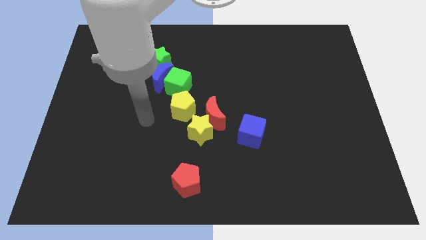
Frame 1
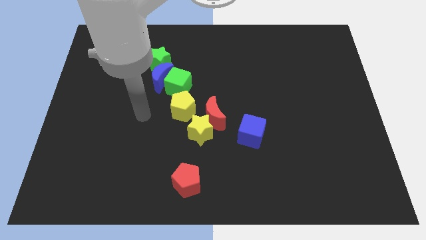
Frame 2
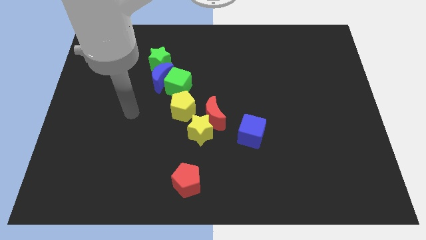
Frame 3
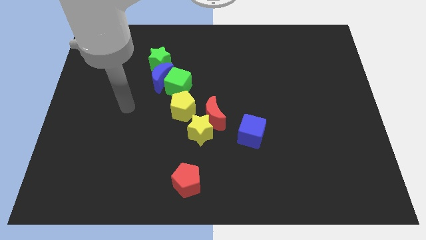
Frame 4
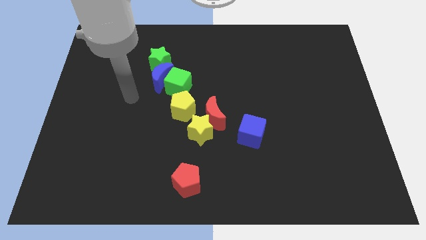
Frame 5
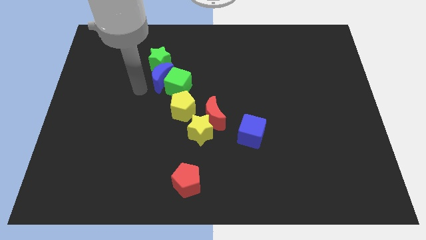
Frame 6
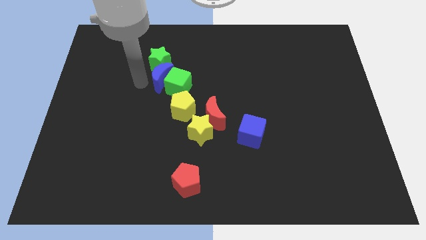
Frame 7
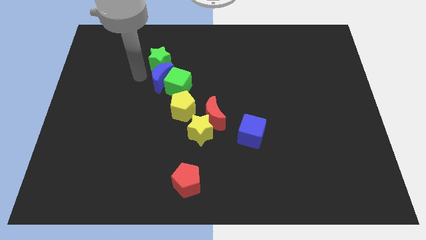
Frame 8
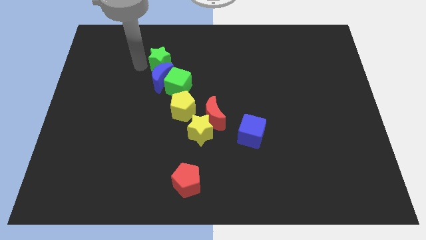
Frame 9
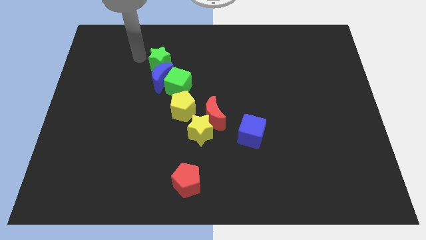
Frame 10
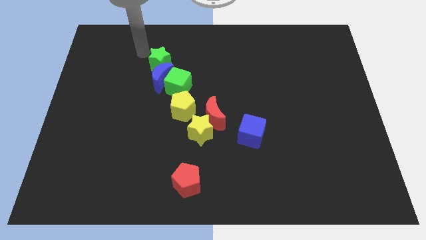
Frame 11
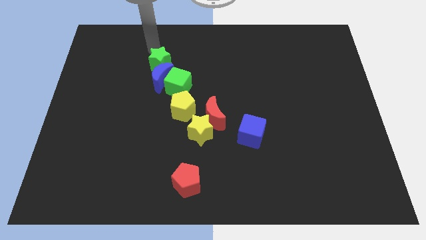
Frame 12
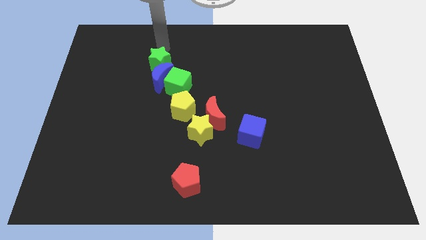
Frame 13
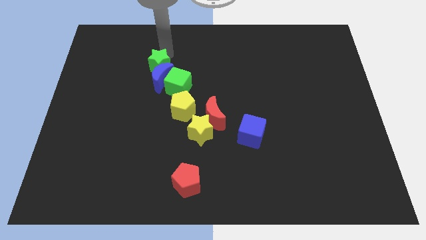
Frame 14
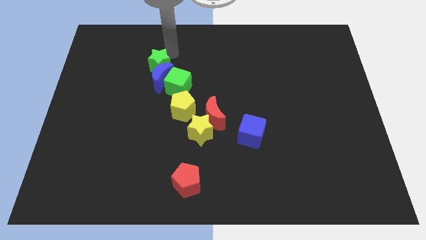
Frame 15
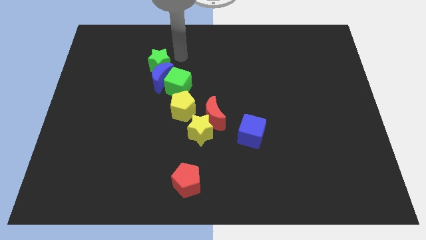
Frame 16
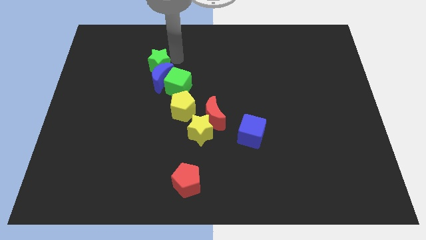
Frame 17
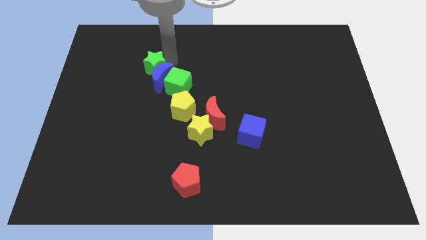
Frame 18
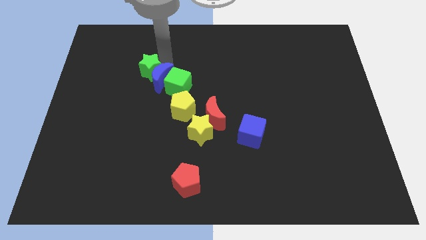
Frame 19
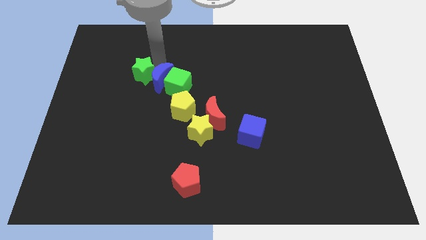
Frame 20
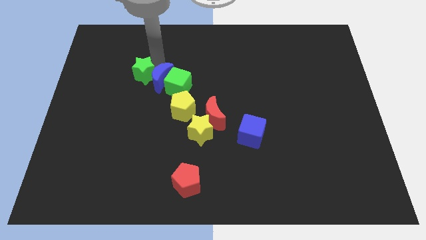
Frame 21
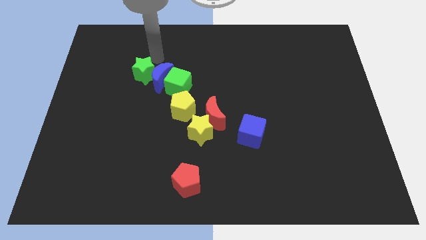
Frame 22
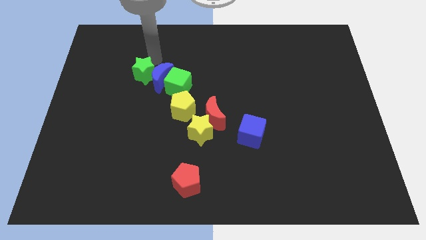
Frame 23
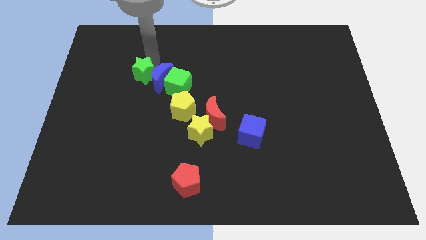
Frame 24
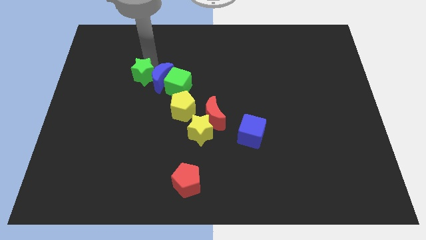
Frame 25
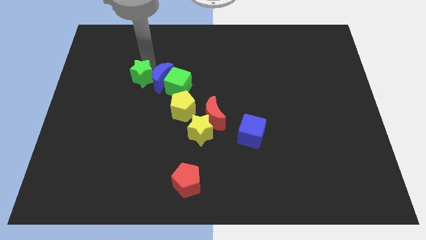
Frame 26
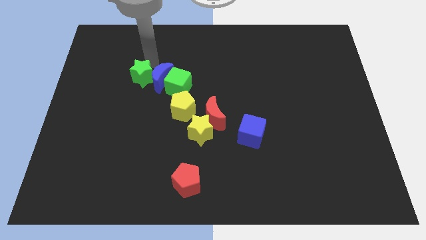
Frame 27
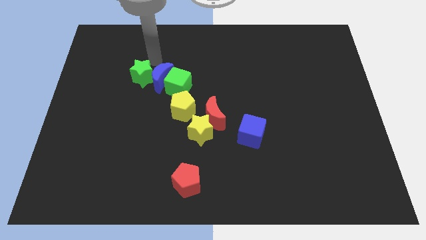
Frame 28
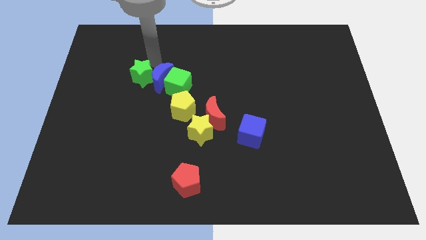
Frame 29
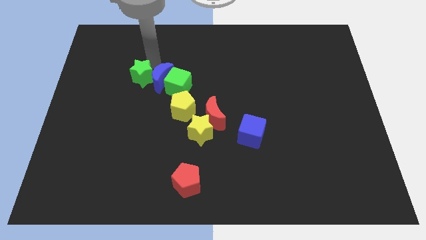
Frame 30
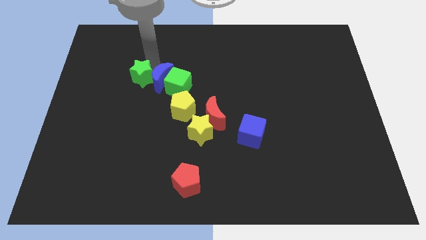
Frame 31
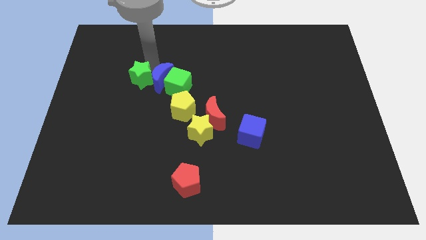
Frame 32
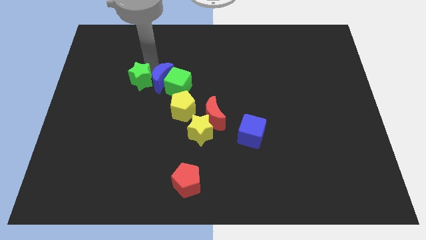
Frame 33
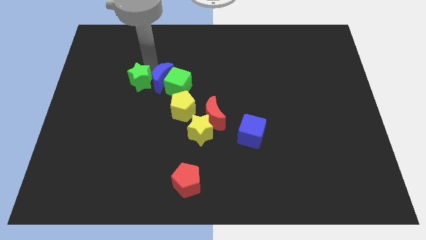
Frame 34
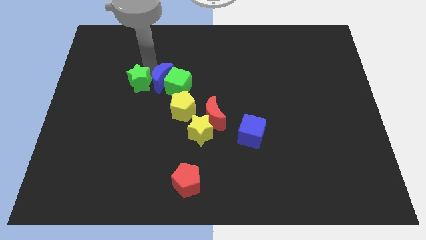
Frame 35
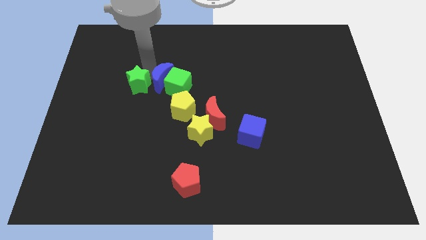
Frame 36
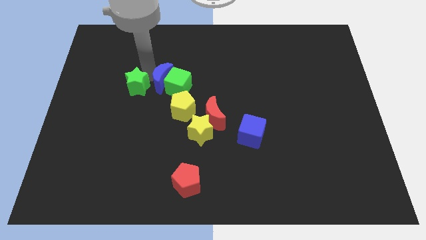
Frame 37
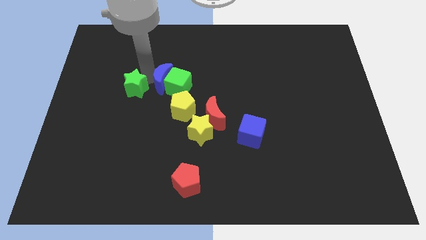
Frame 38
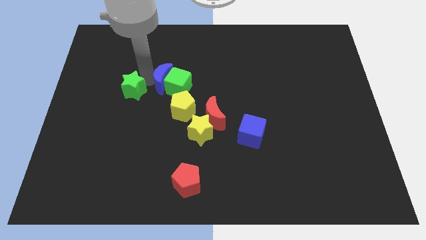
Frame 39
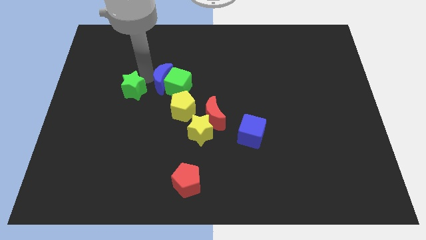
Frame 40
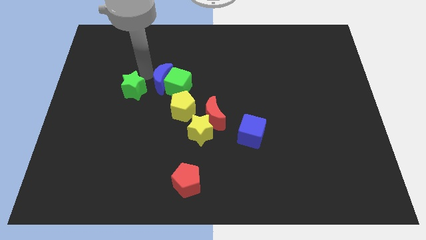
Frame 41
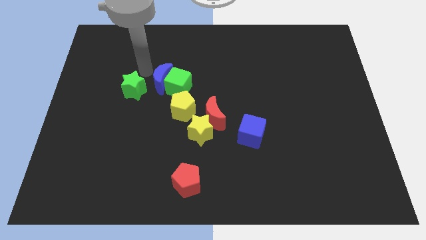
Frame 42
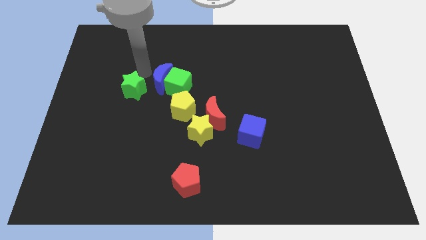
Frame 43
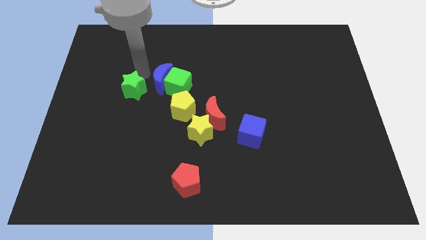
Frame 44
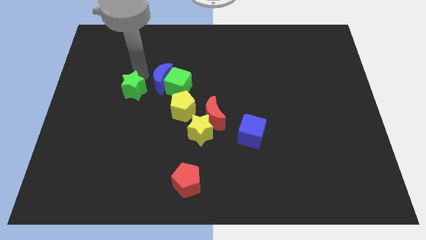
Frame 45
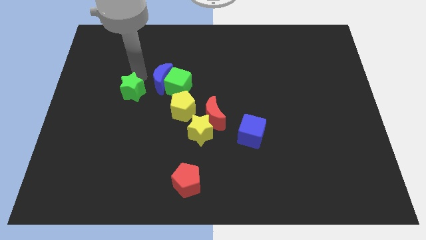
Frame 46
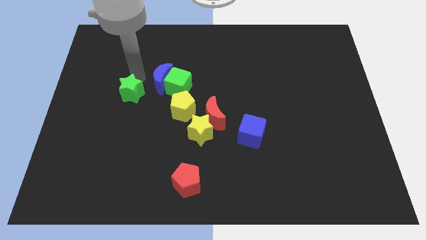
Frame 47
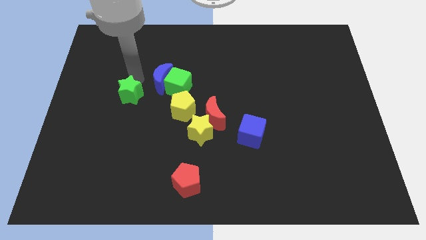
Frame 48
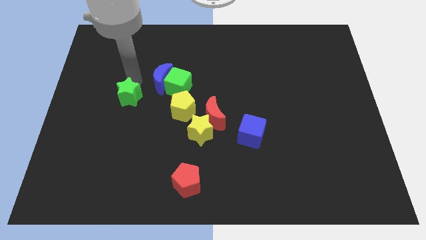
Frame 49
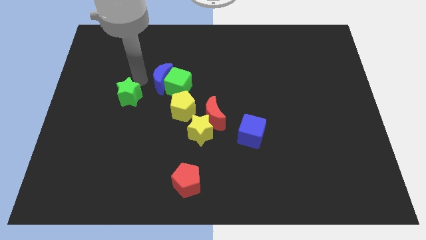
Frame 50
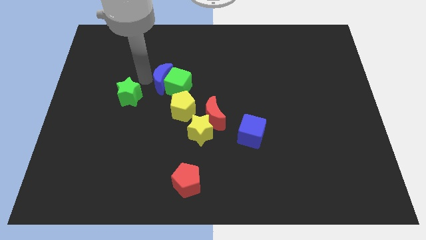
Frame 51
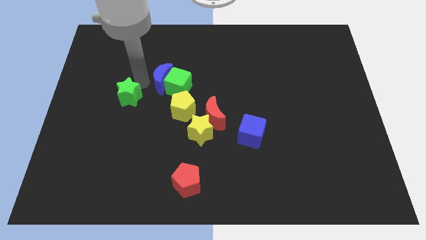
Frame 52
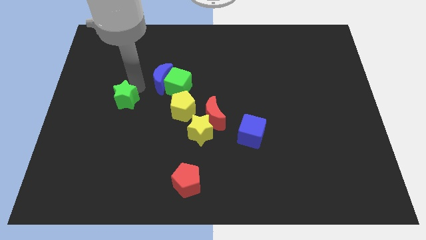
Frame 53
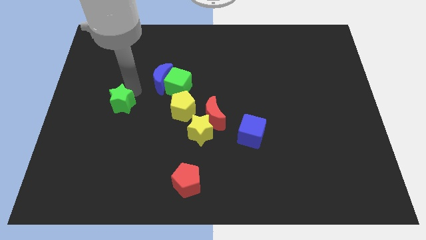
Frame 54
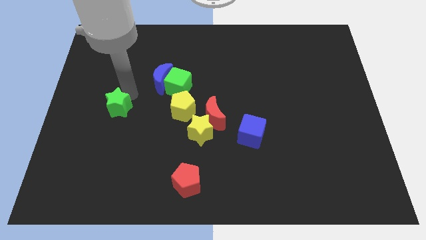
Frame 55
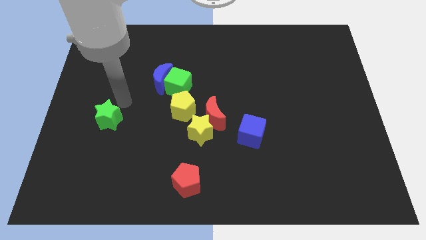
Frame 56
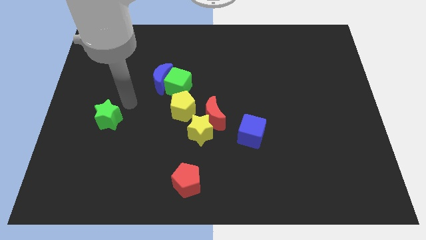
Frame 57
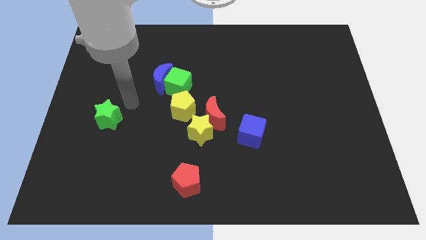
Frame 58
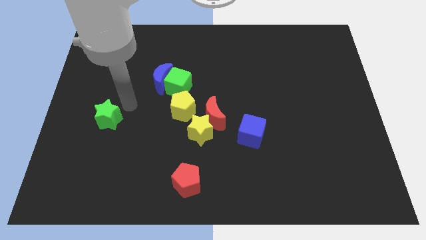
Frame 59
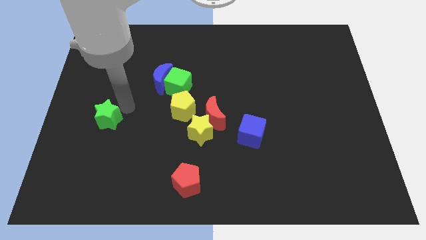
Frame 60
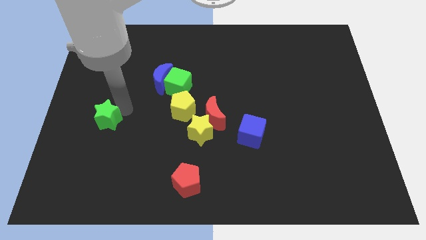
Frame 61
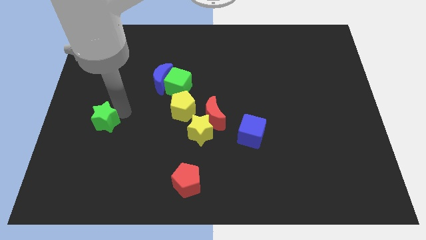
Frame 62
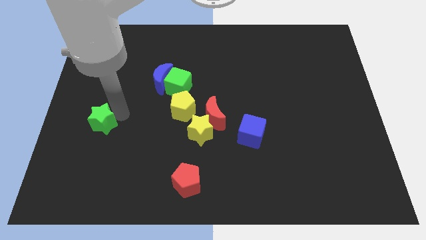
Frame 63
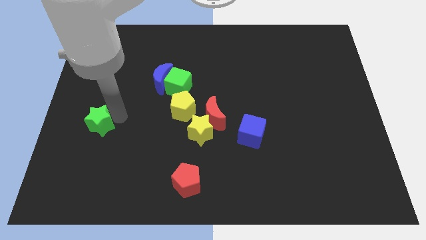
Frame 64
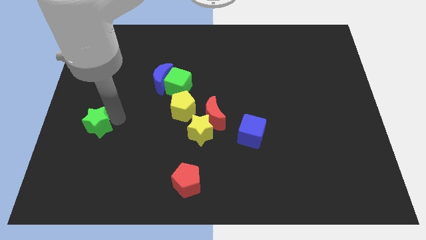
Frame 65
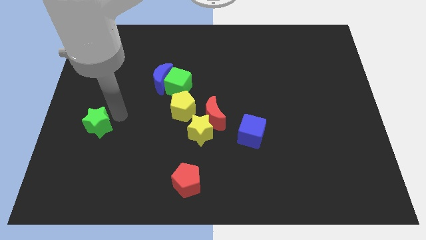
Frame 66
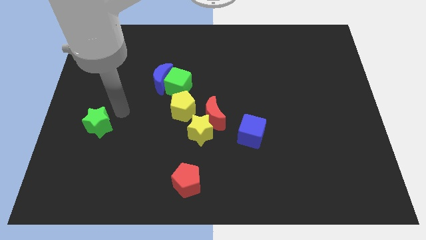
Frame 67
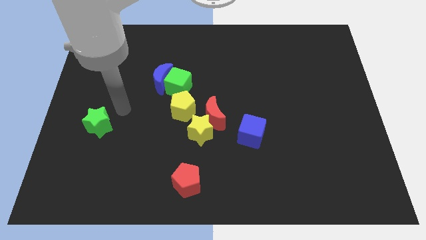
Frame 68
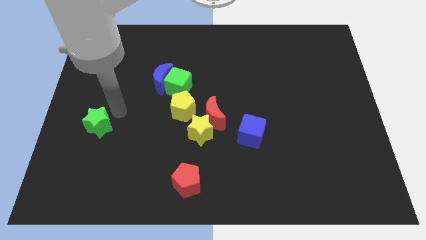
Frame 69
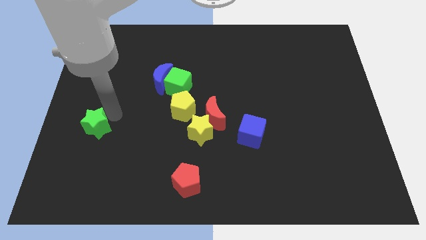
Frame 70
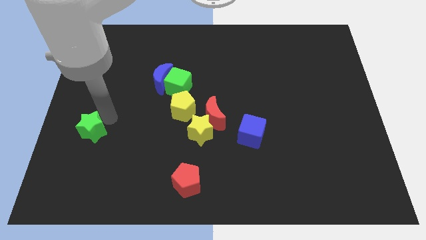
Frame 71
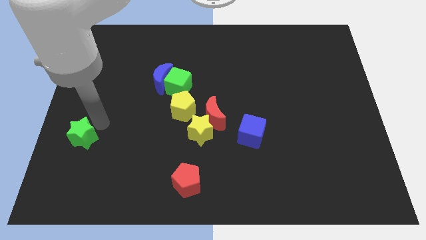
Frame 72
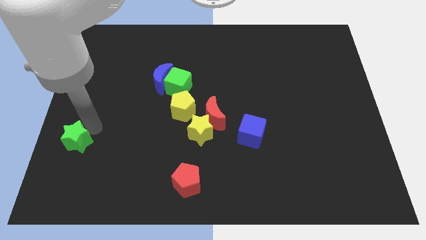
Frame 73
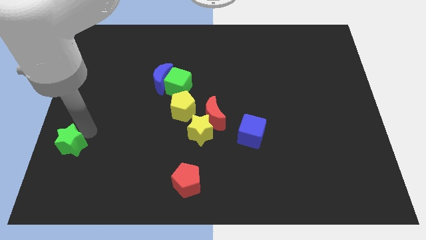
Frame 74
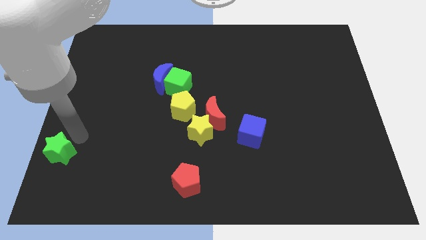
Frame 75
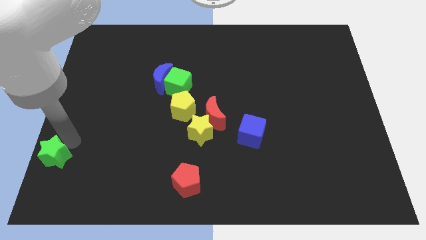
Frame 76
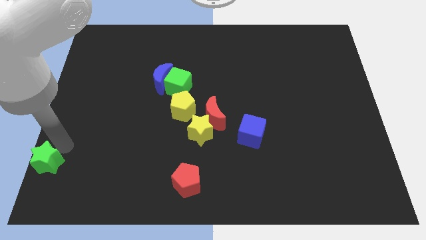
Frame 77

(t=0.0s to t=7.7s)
push the green star to the bottom left corner
